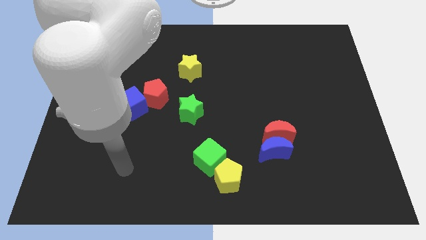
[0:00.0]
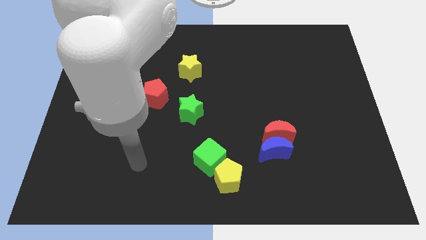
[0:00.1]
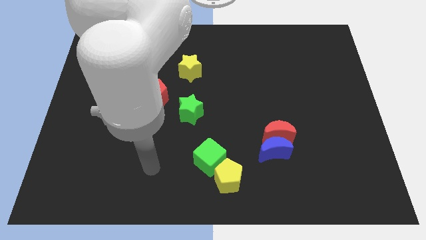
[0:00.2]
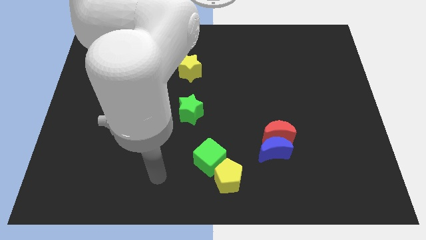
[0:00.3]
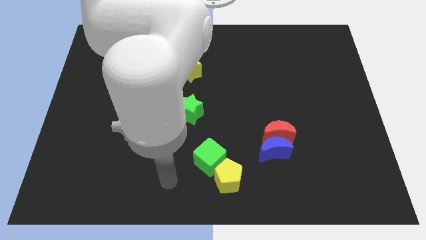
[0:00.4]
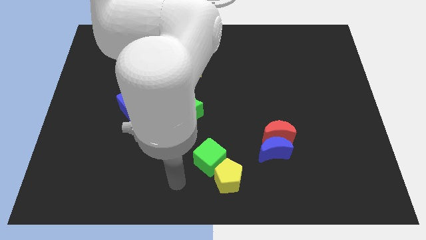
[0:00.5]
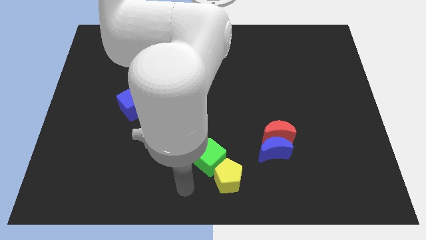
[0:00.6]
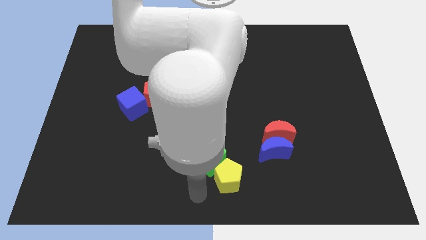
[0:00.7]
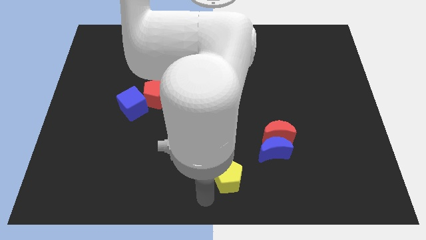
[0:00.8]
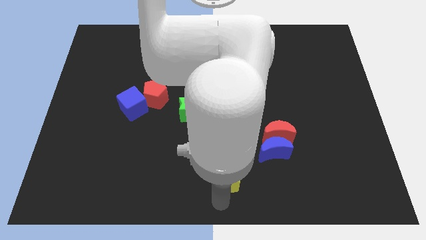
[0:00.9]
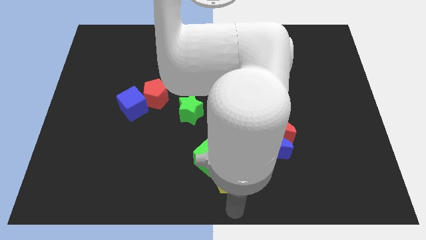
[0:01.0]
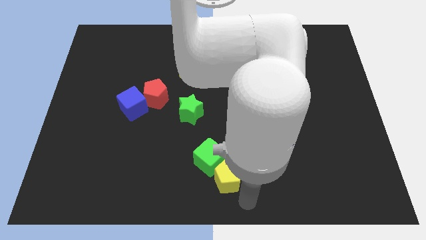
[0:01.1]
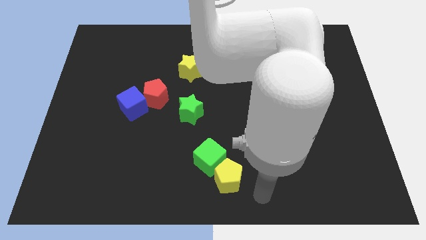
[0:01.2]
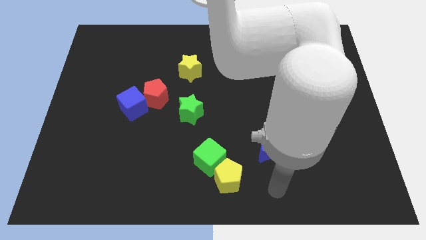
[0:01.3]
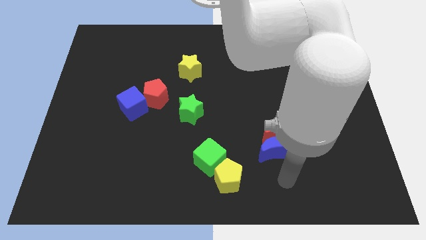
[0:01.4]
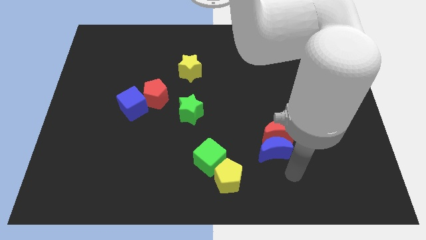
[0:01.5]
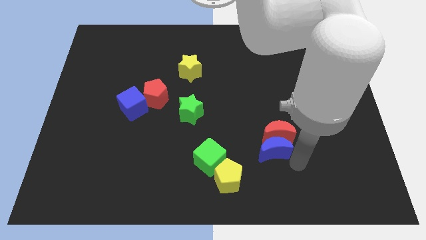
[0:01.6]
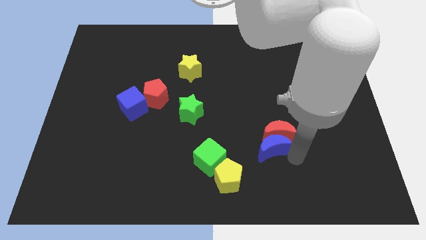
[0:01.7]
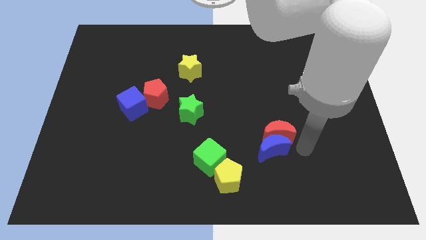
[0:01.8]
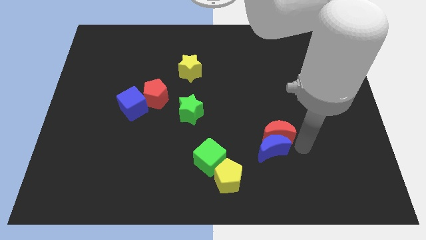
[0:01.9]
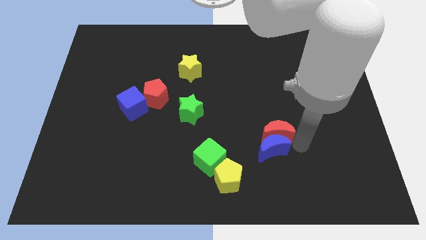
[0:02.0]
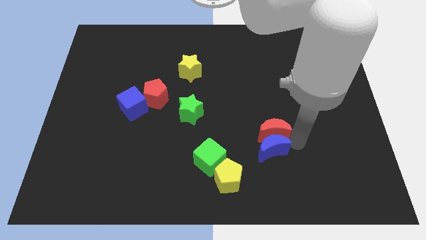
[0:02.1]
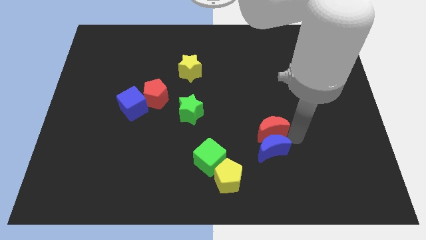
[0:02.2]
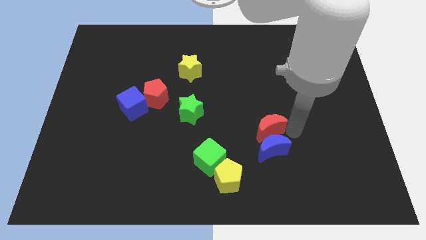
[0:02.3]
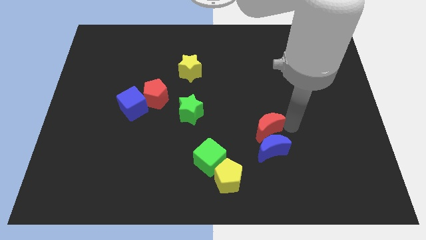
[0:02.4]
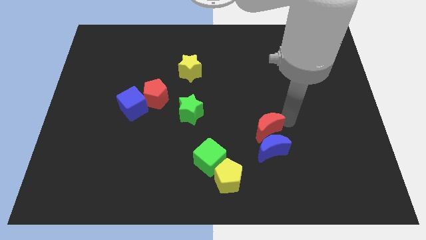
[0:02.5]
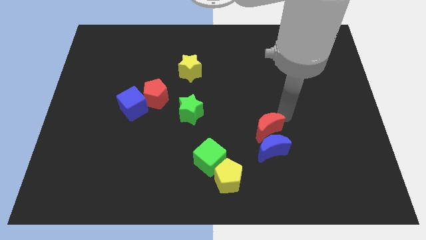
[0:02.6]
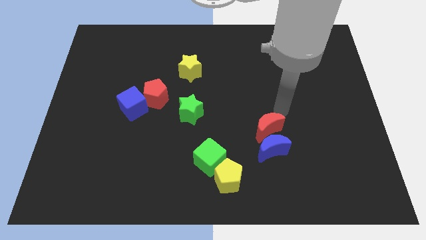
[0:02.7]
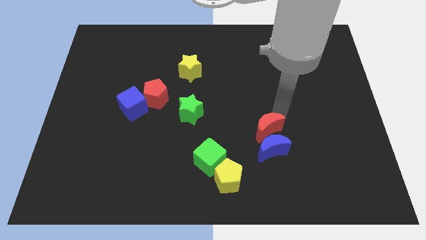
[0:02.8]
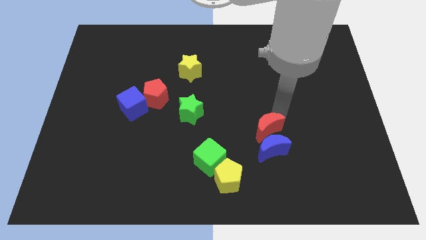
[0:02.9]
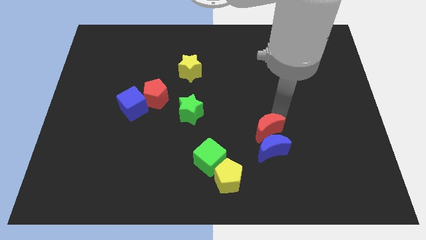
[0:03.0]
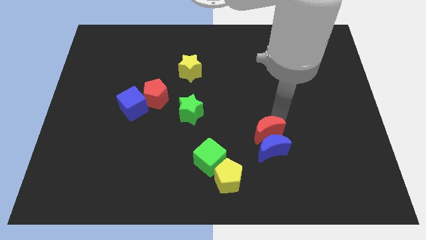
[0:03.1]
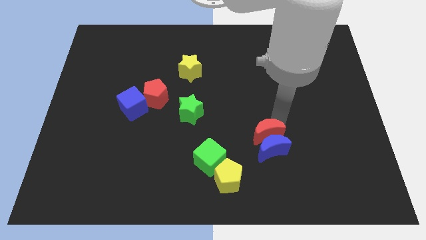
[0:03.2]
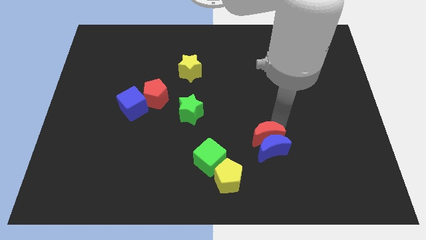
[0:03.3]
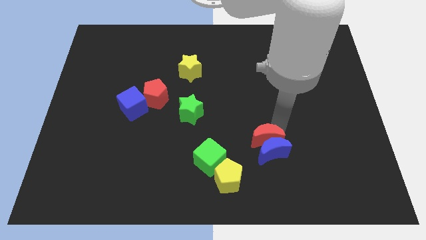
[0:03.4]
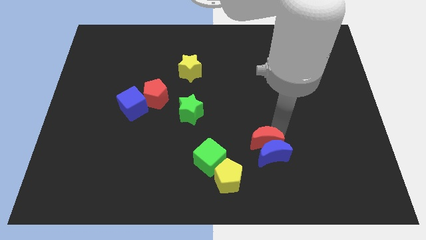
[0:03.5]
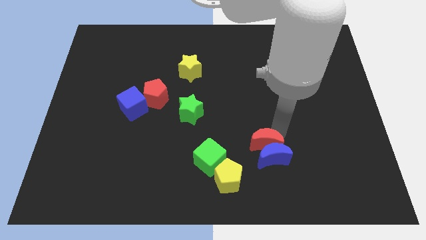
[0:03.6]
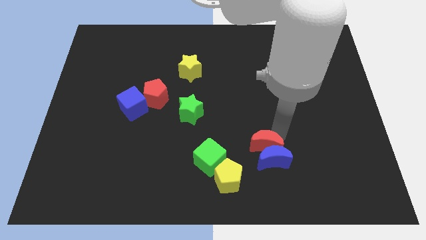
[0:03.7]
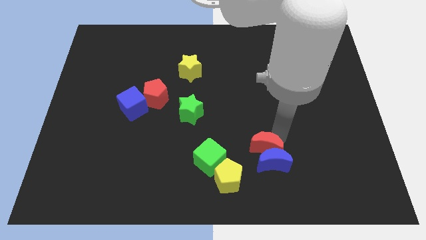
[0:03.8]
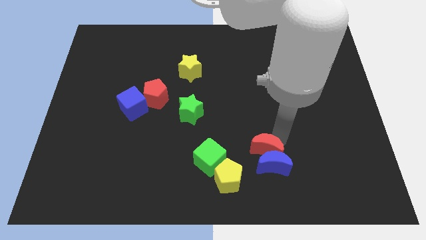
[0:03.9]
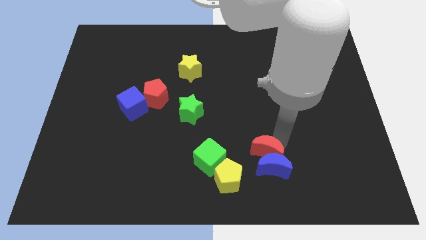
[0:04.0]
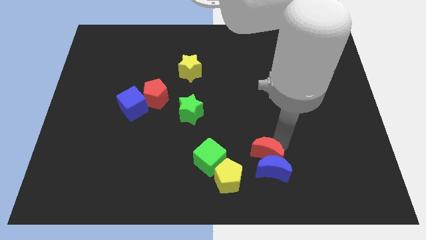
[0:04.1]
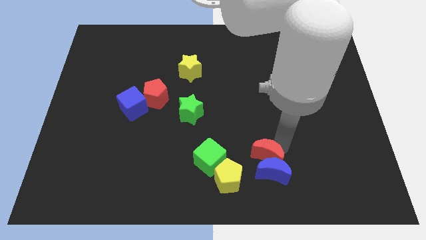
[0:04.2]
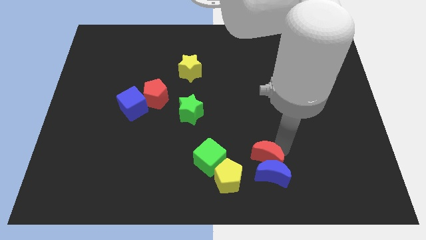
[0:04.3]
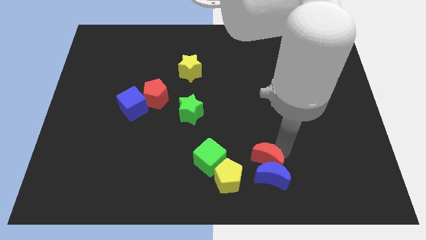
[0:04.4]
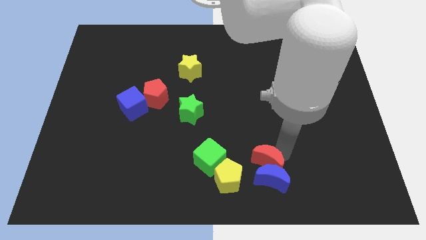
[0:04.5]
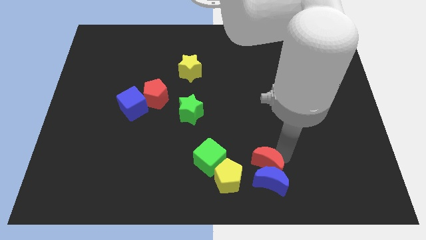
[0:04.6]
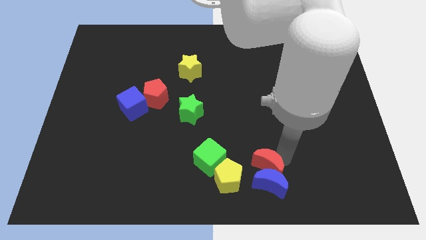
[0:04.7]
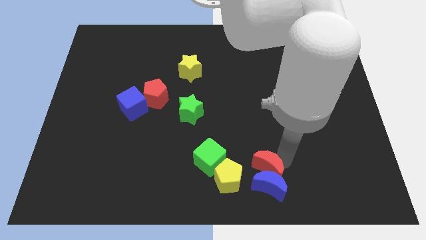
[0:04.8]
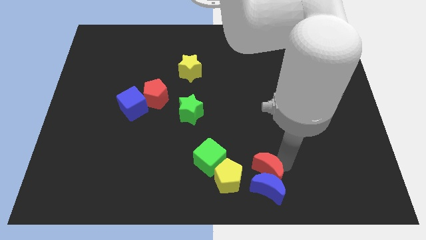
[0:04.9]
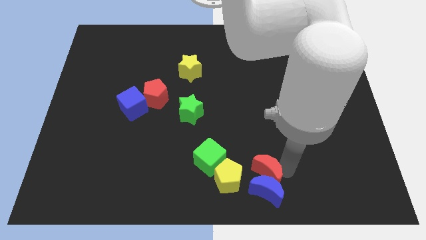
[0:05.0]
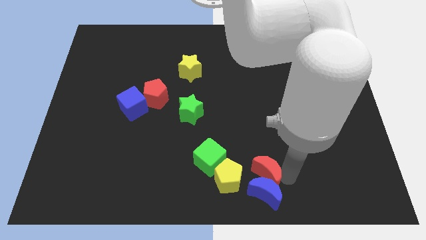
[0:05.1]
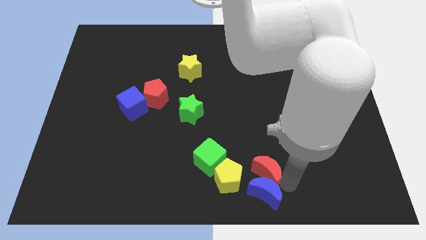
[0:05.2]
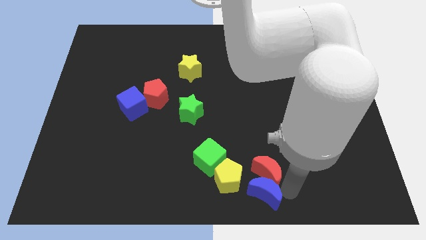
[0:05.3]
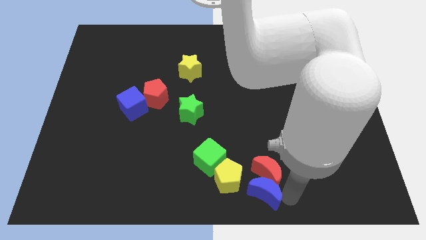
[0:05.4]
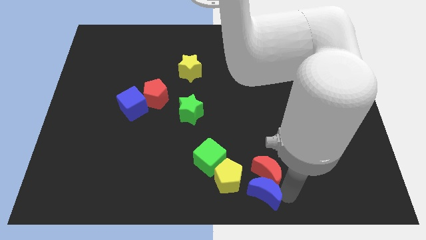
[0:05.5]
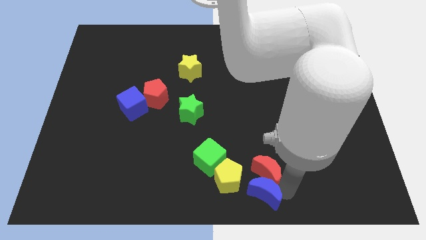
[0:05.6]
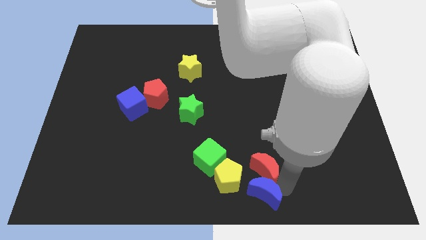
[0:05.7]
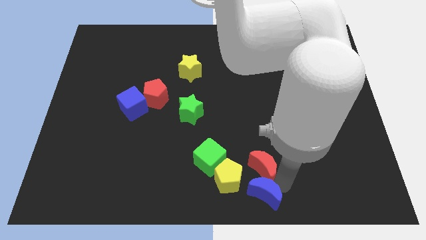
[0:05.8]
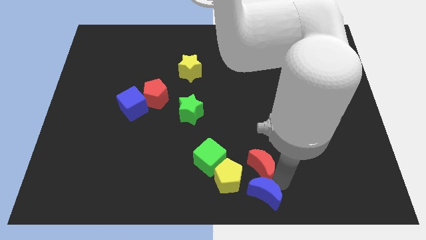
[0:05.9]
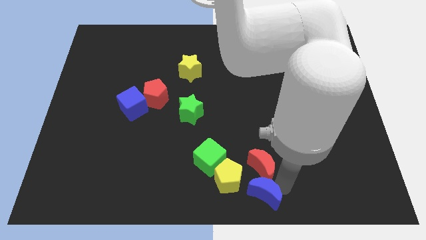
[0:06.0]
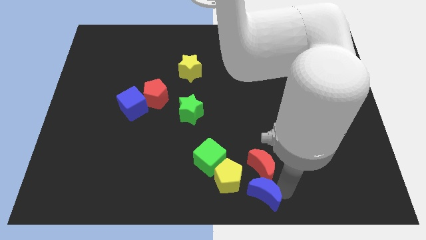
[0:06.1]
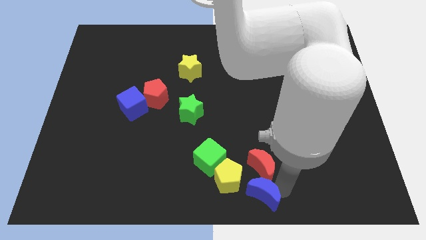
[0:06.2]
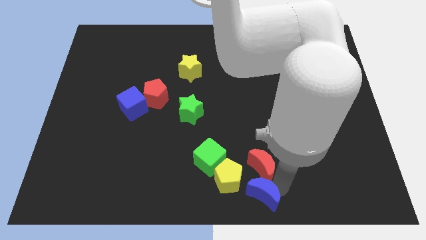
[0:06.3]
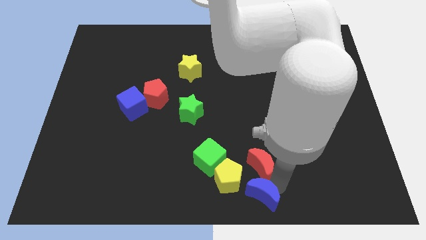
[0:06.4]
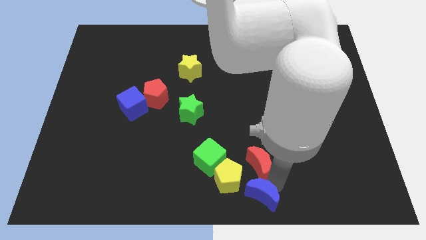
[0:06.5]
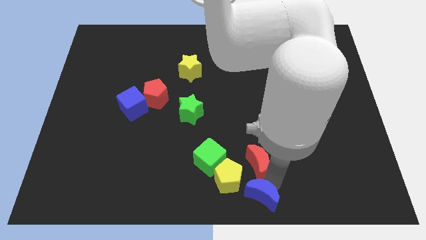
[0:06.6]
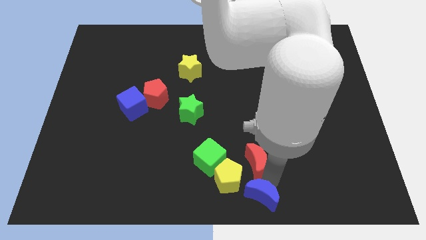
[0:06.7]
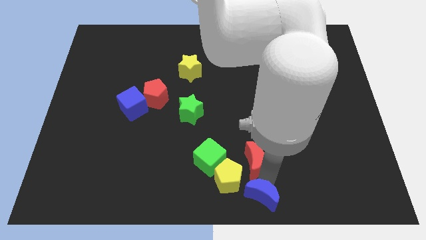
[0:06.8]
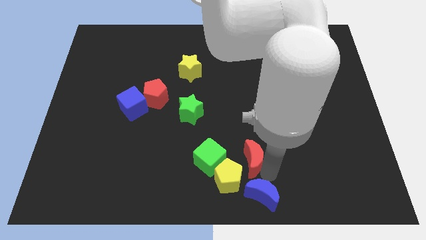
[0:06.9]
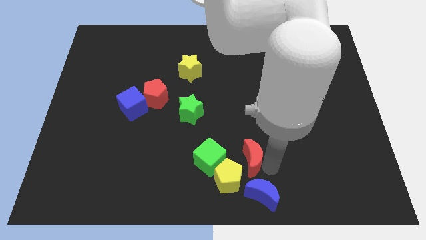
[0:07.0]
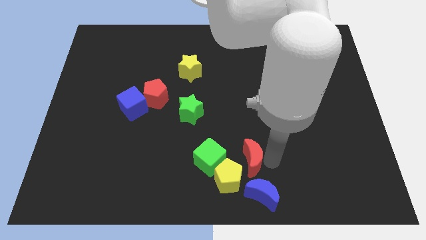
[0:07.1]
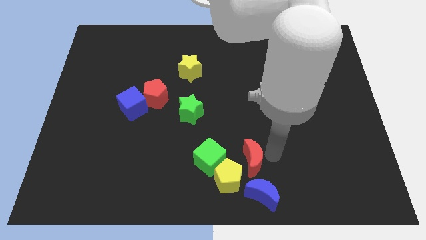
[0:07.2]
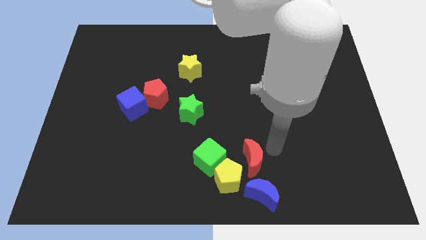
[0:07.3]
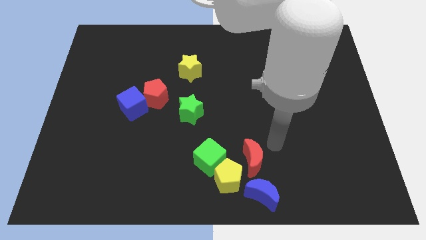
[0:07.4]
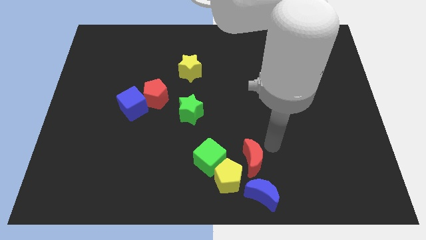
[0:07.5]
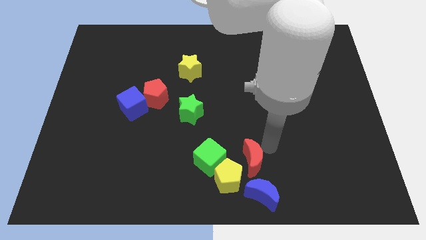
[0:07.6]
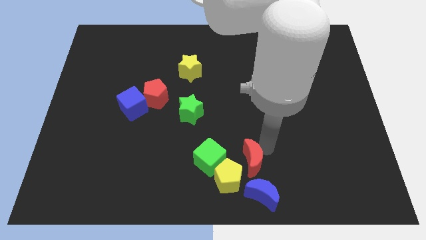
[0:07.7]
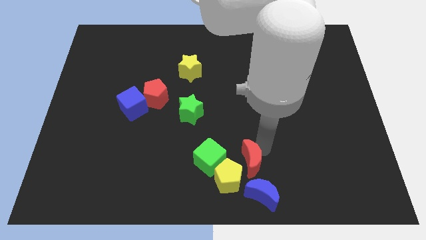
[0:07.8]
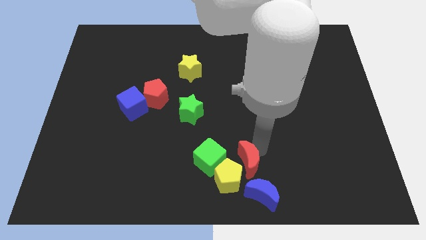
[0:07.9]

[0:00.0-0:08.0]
put the red moon to the yellow pentagon

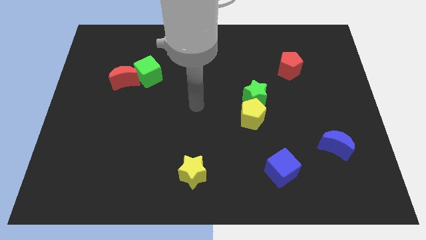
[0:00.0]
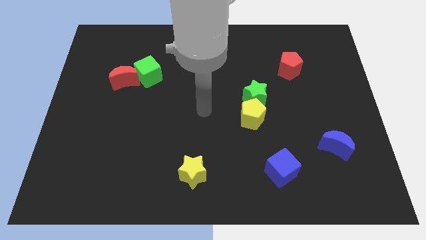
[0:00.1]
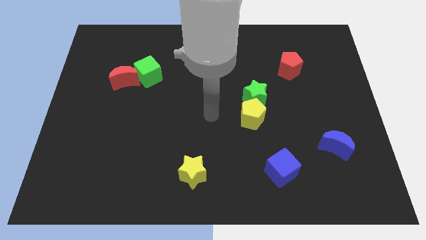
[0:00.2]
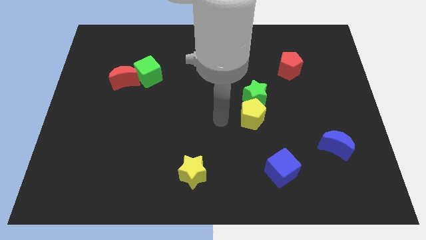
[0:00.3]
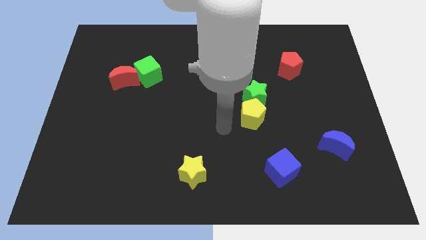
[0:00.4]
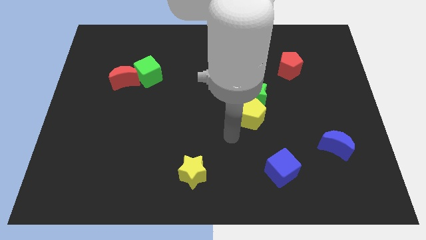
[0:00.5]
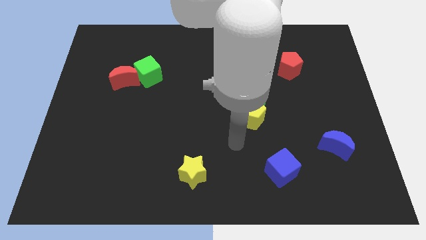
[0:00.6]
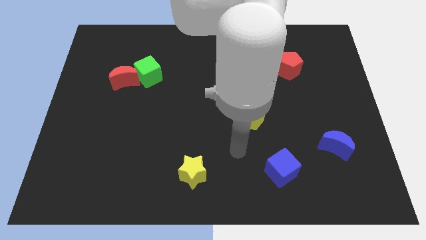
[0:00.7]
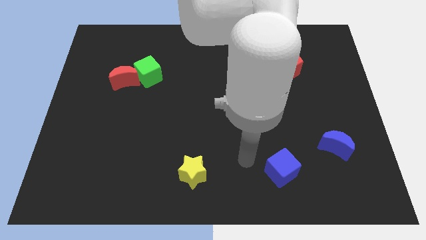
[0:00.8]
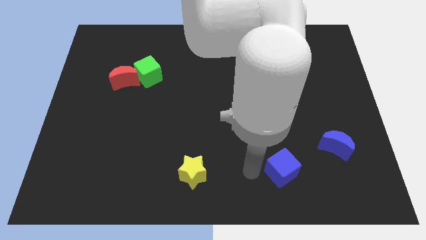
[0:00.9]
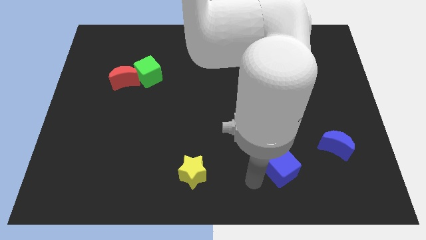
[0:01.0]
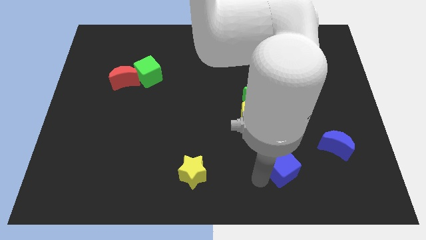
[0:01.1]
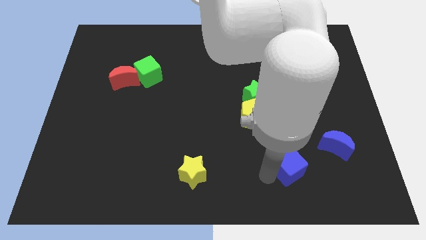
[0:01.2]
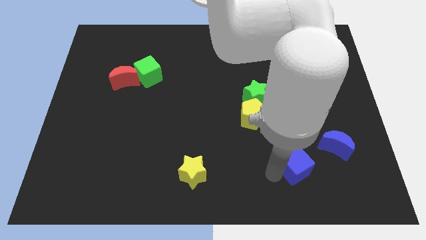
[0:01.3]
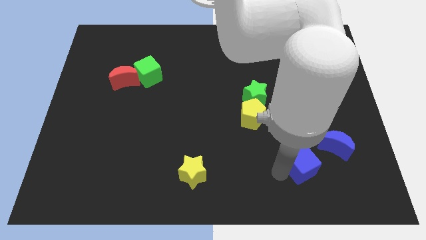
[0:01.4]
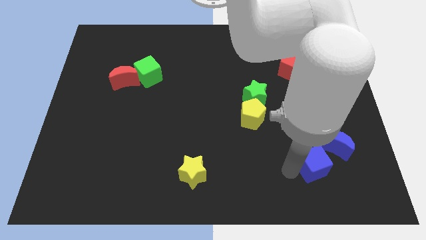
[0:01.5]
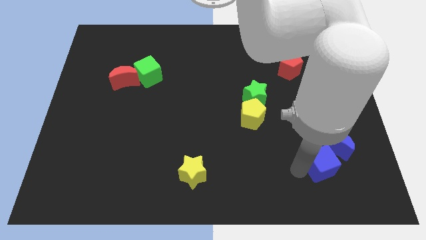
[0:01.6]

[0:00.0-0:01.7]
slide the blue cube next to the blue moon
